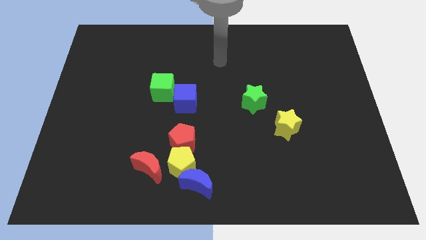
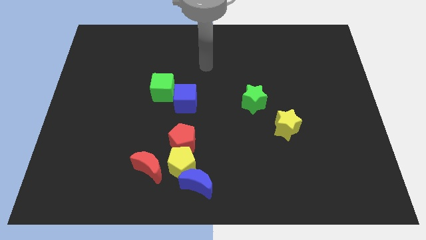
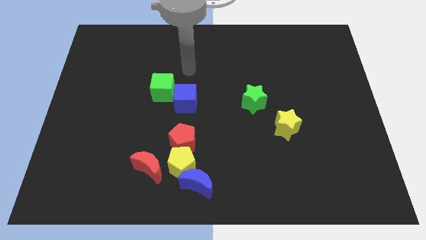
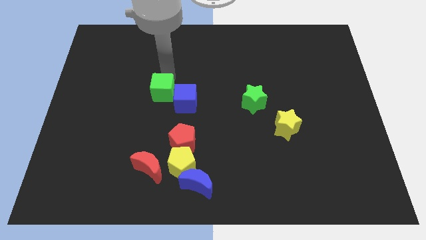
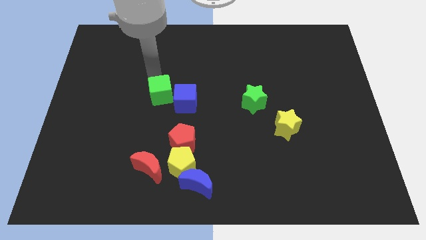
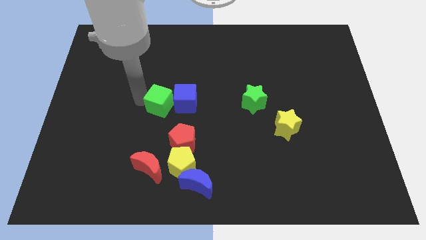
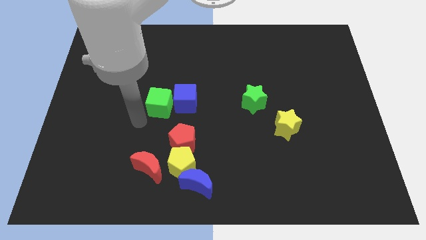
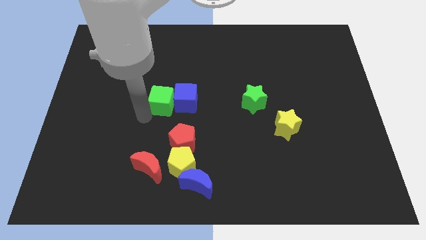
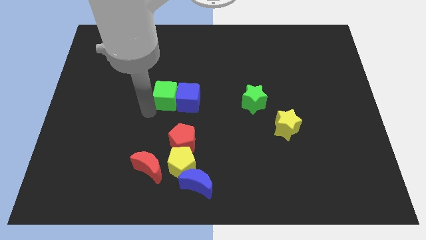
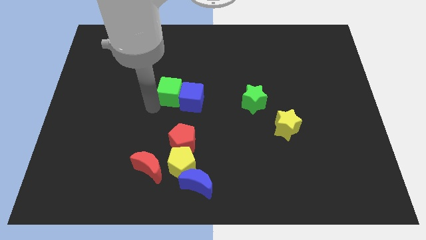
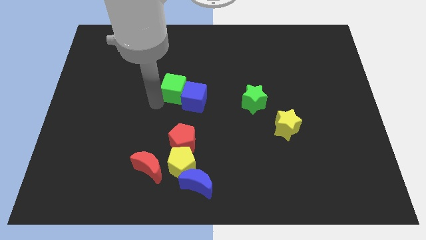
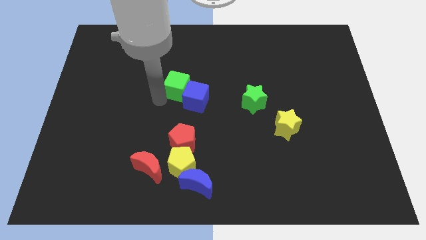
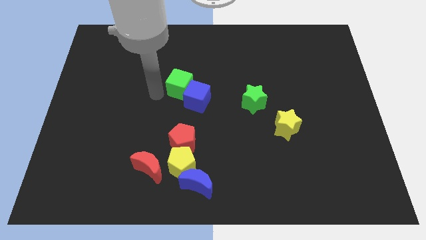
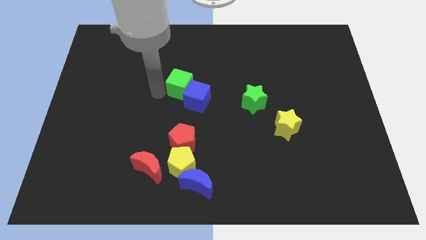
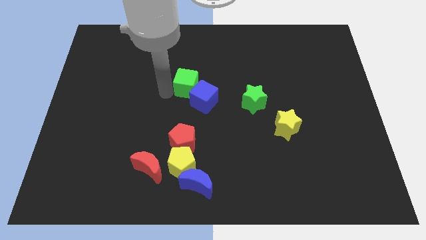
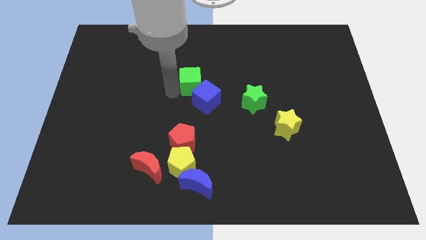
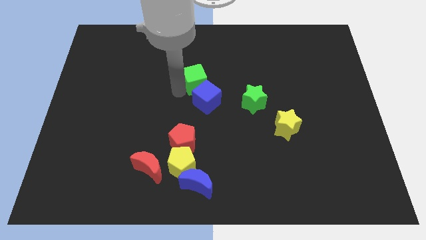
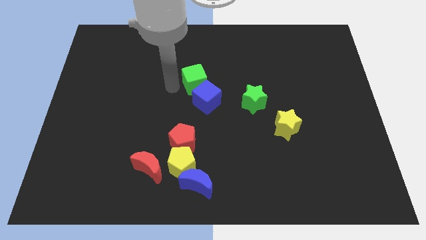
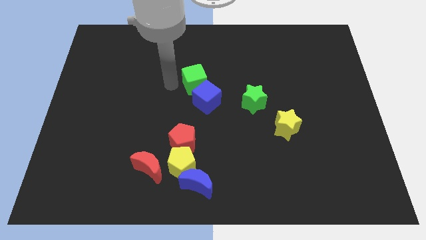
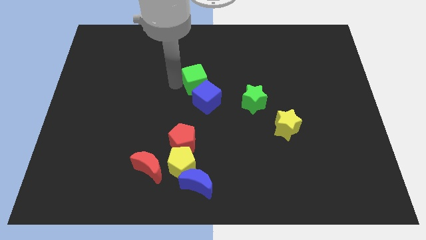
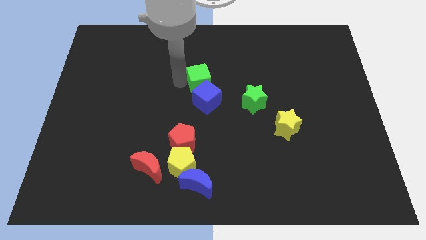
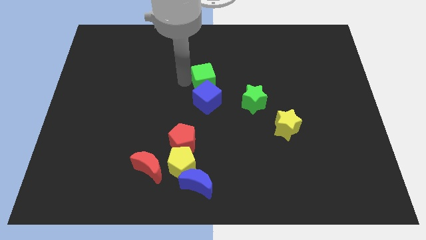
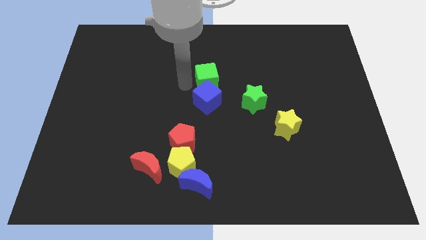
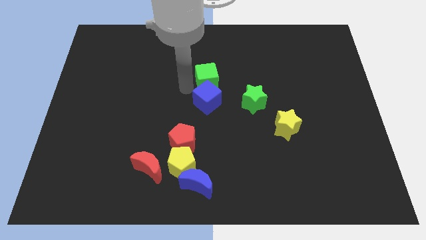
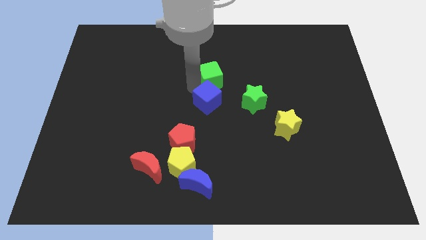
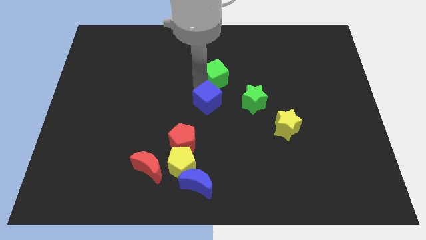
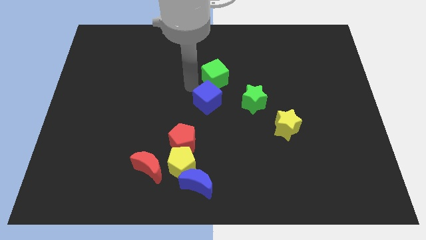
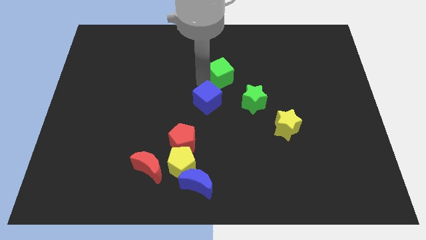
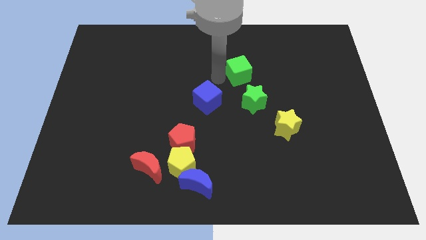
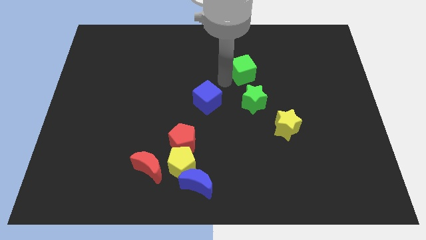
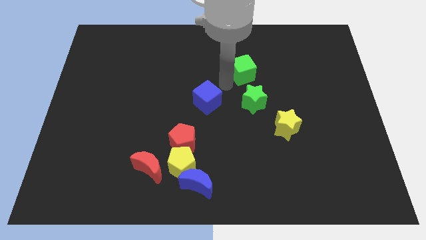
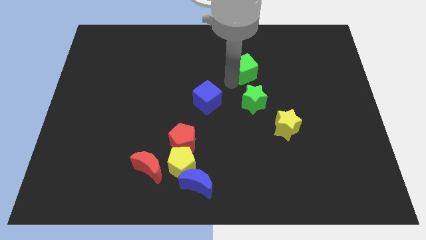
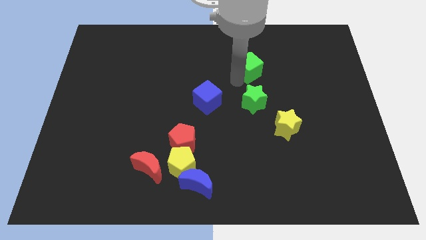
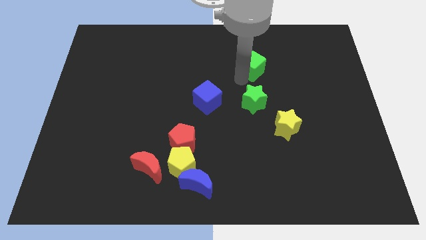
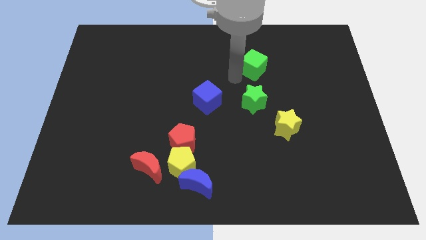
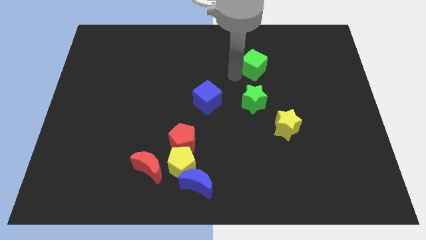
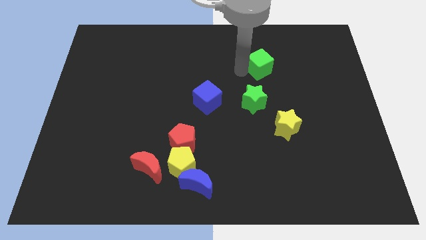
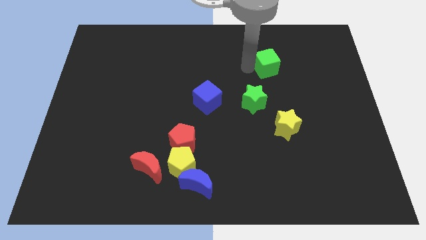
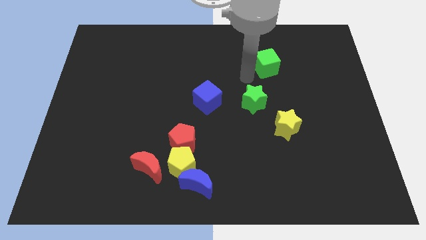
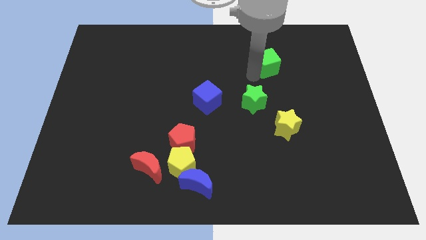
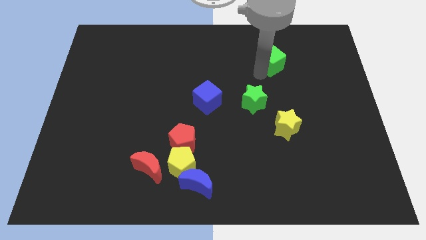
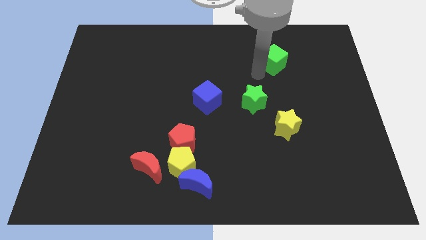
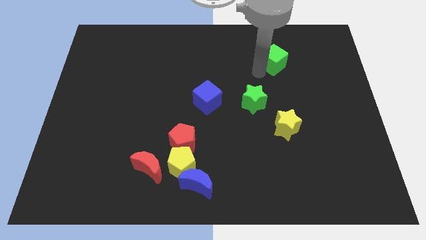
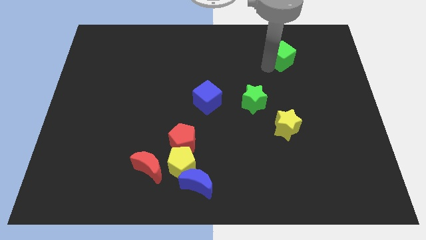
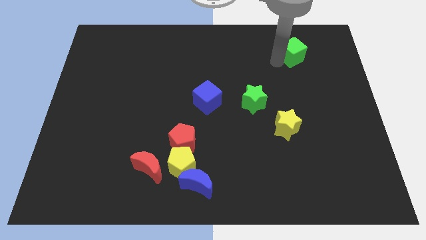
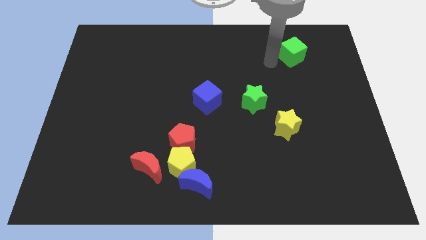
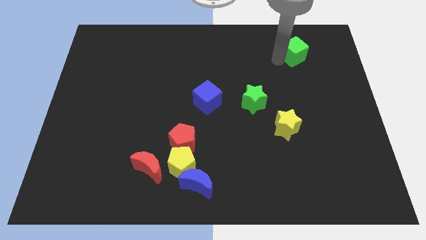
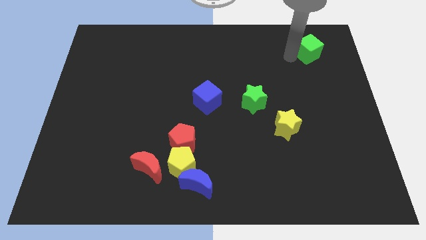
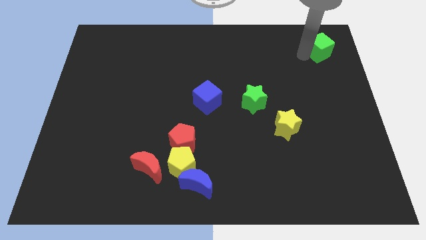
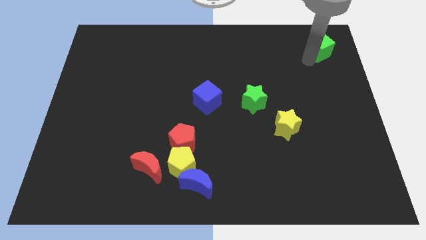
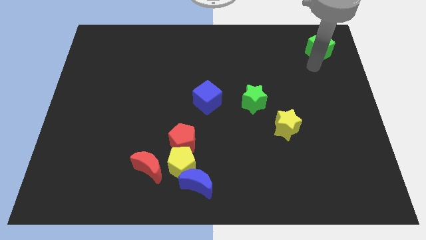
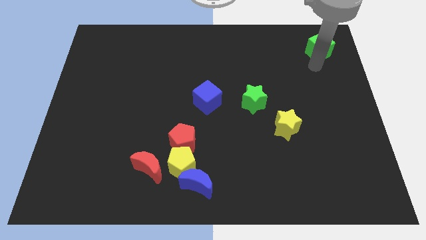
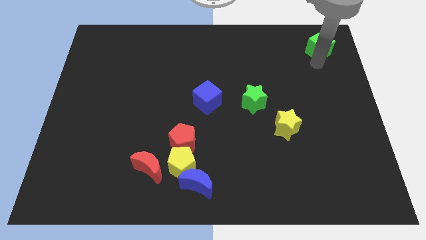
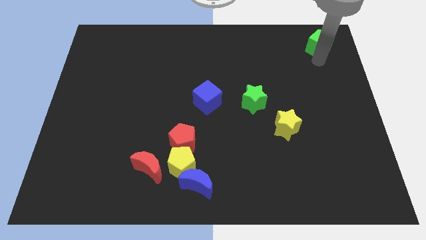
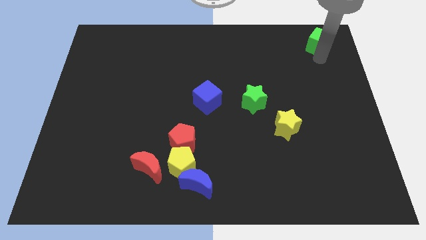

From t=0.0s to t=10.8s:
put the green cube to the top right corner

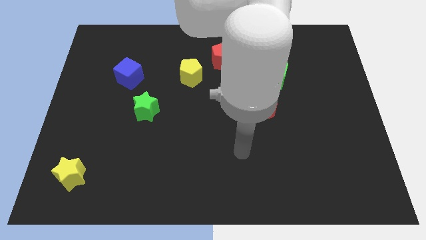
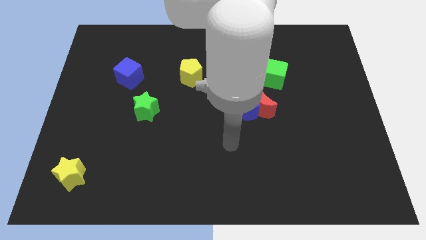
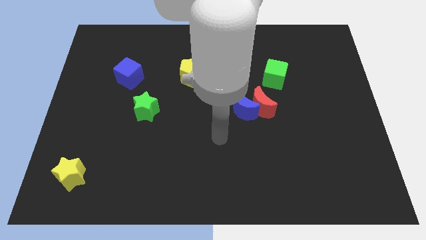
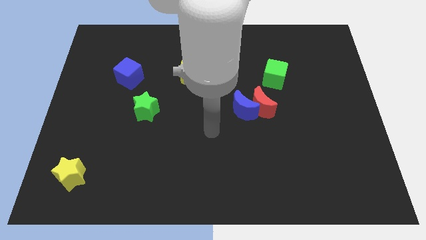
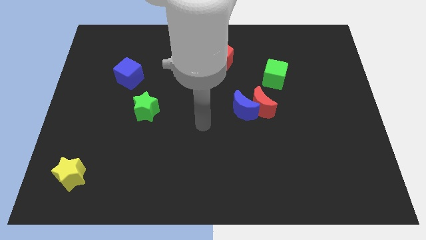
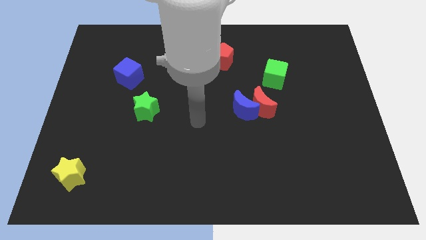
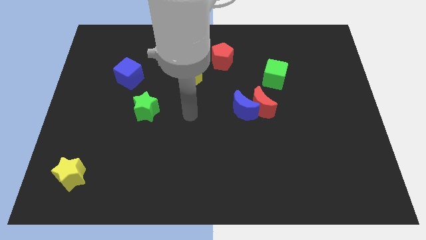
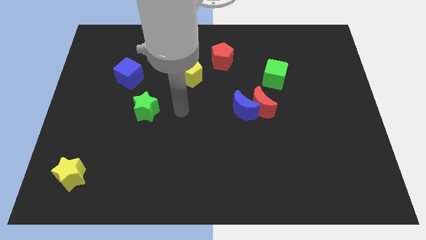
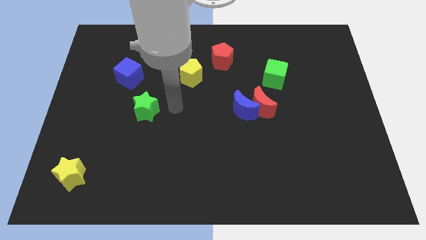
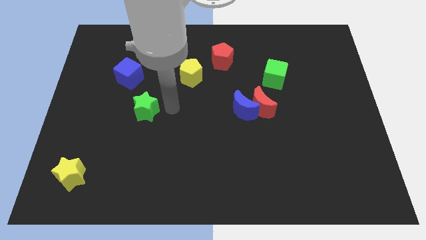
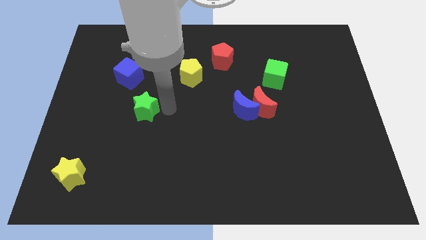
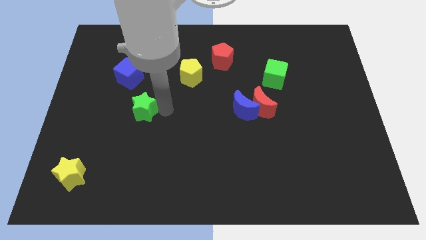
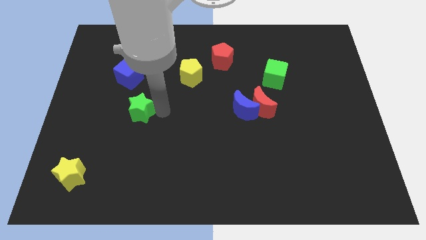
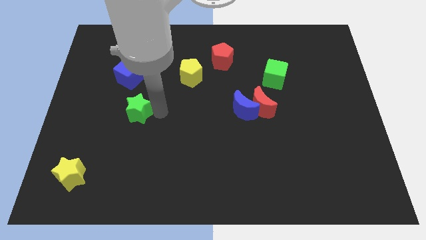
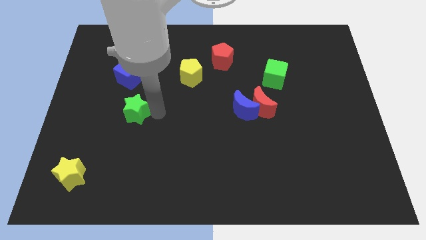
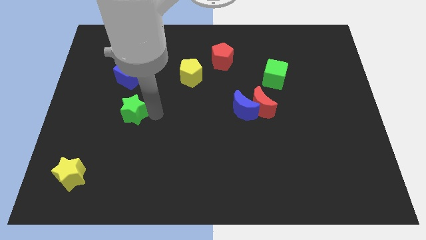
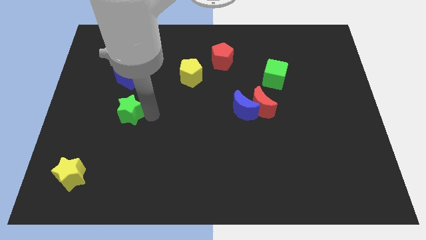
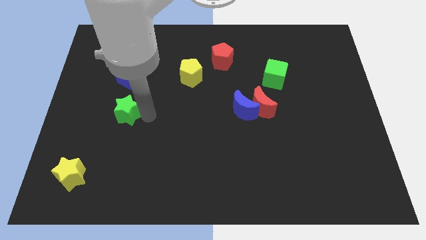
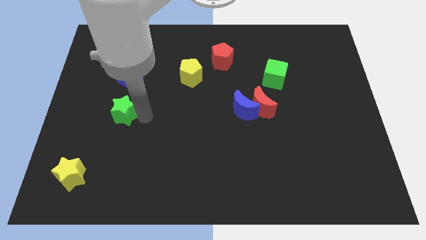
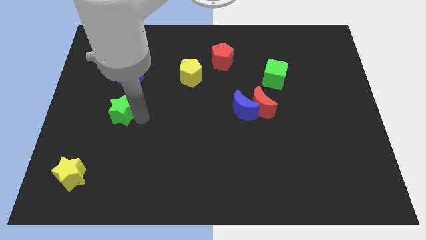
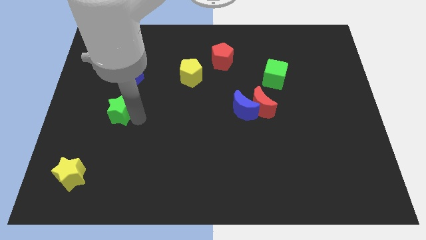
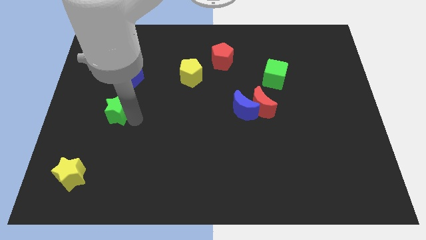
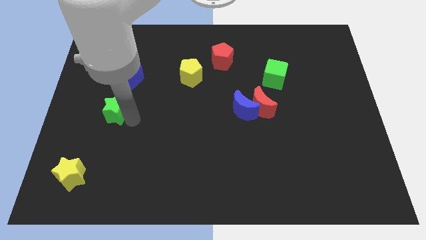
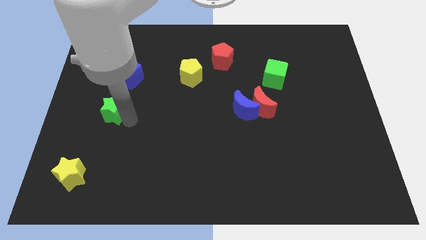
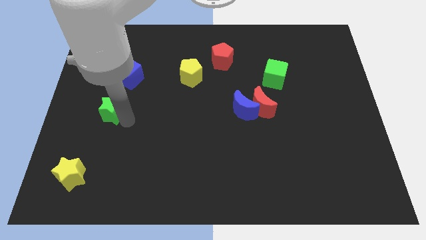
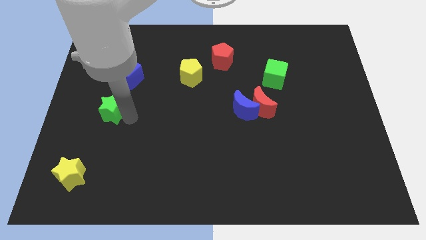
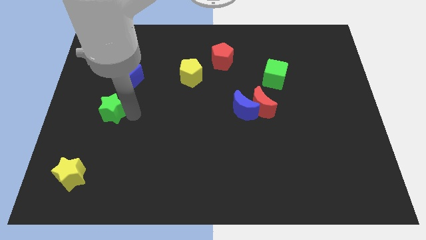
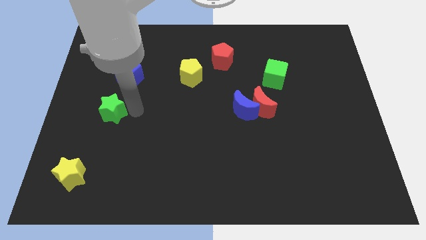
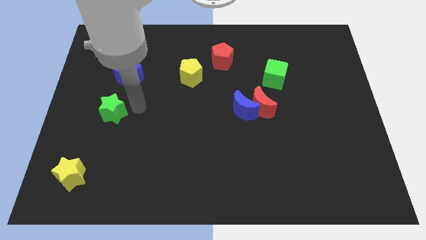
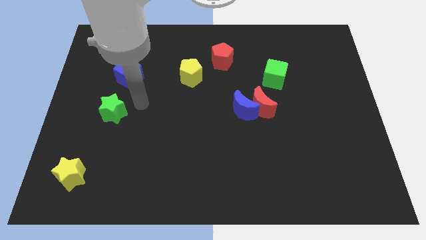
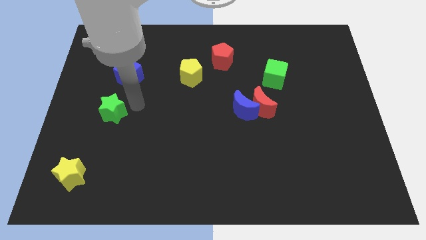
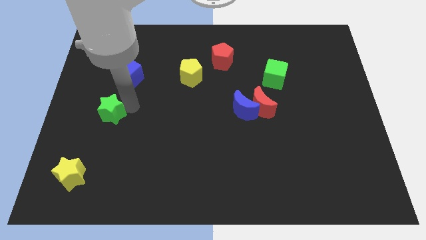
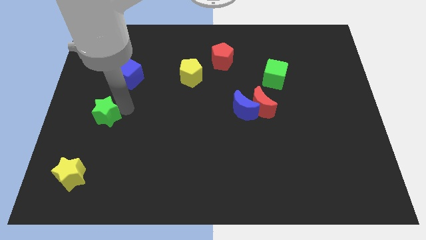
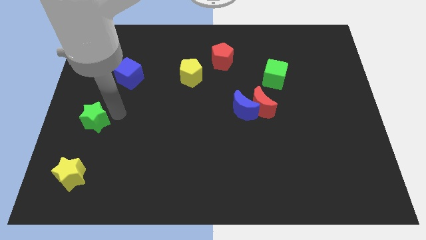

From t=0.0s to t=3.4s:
put the green star to the left side of the board
